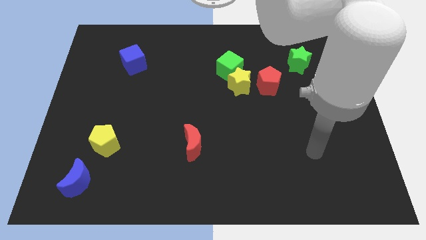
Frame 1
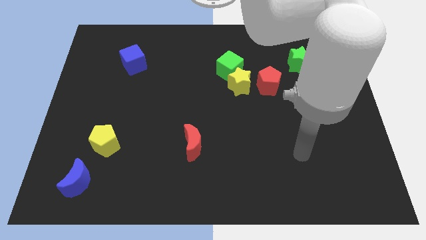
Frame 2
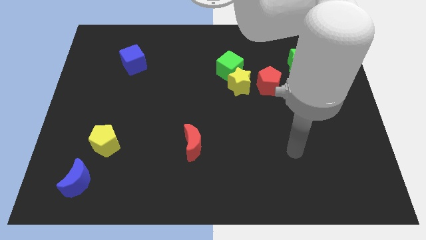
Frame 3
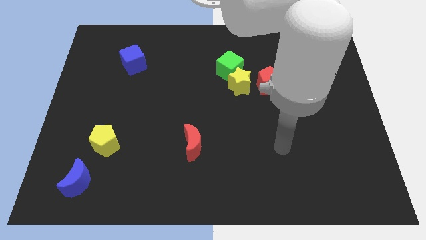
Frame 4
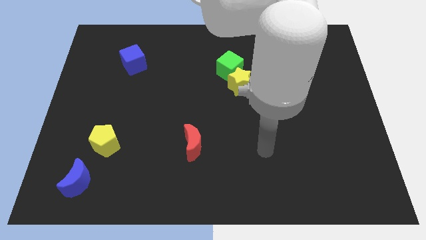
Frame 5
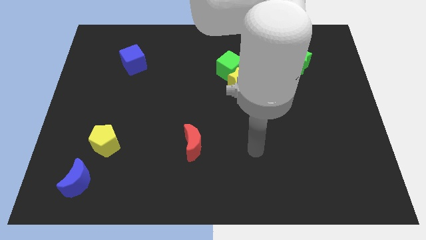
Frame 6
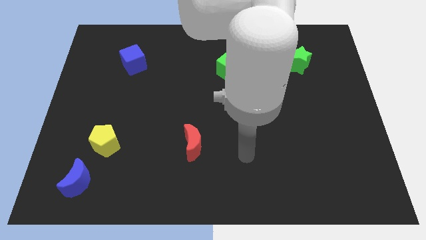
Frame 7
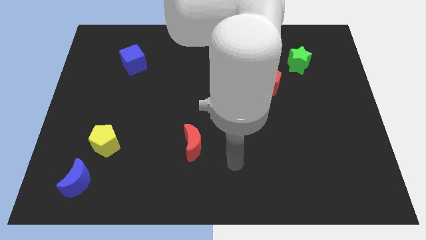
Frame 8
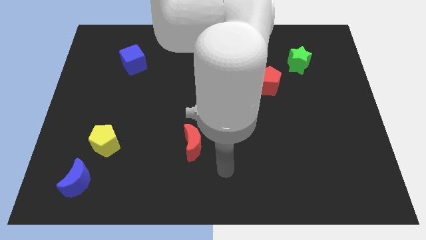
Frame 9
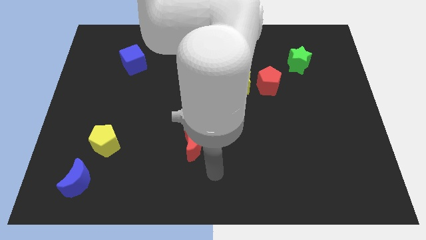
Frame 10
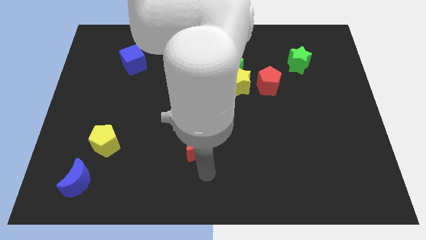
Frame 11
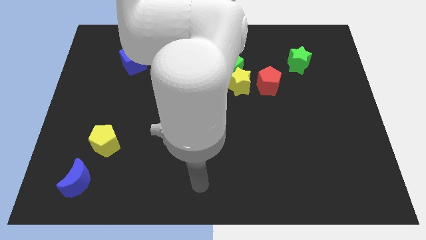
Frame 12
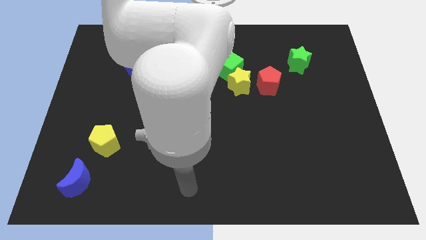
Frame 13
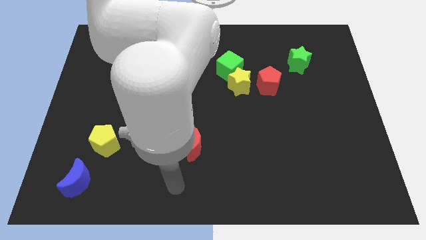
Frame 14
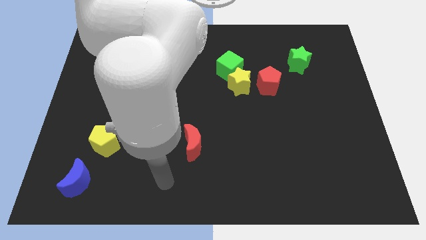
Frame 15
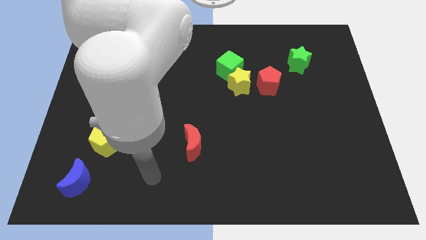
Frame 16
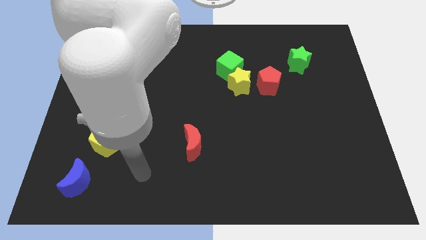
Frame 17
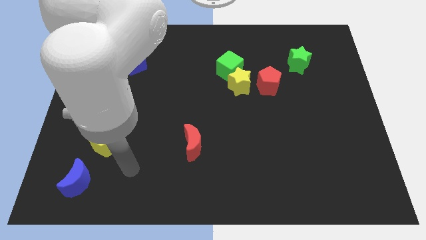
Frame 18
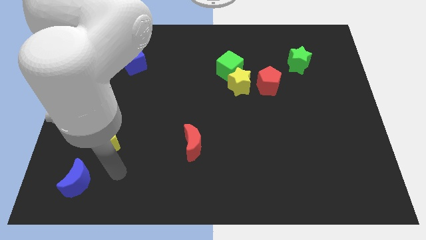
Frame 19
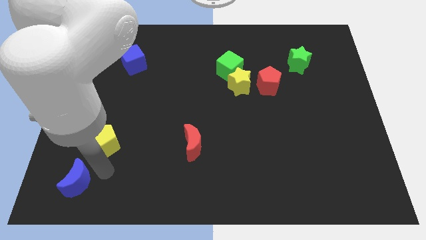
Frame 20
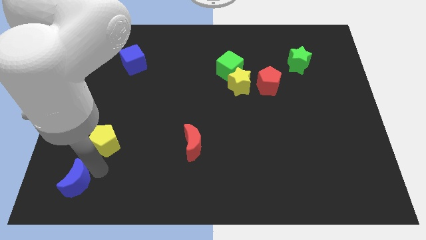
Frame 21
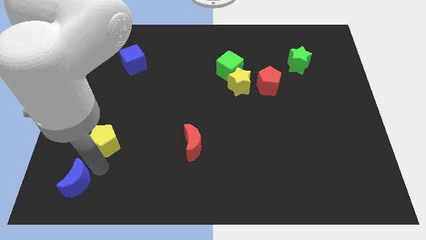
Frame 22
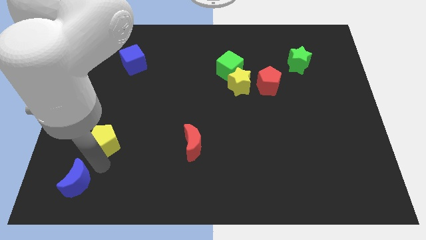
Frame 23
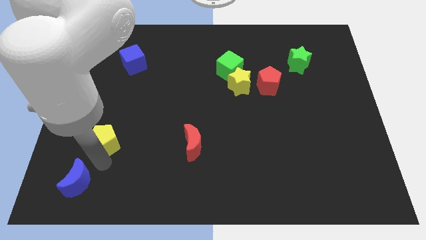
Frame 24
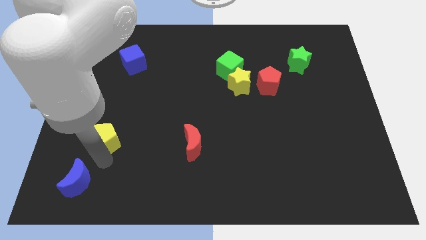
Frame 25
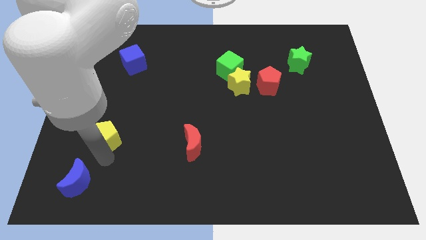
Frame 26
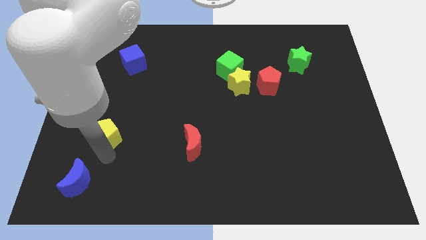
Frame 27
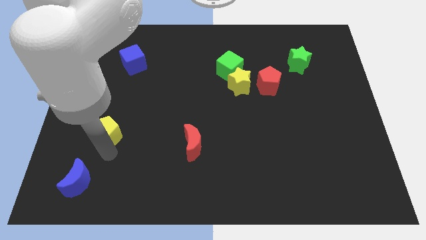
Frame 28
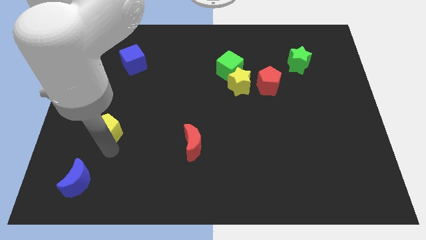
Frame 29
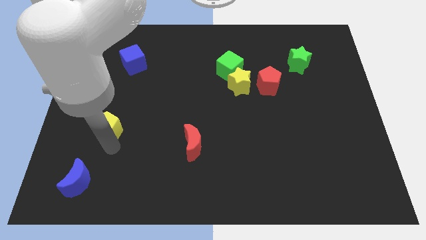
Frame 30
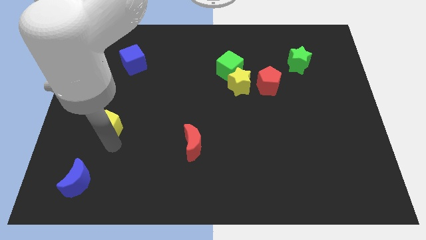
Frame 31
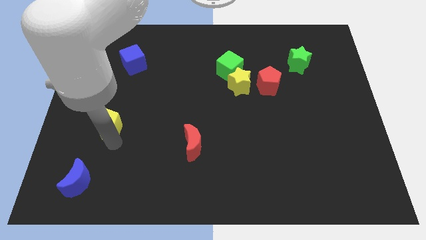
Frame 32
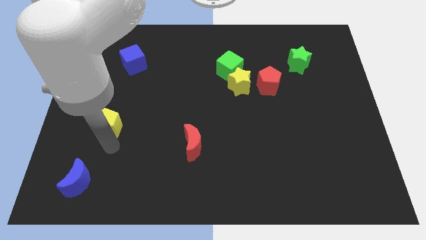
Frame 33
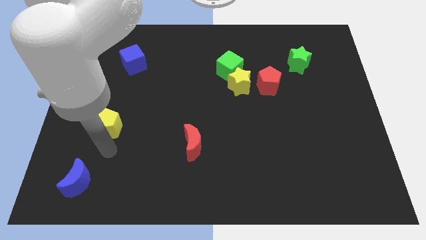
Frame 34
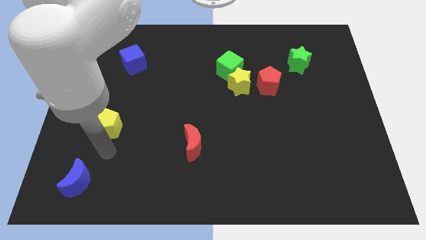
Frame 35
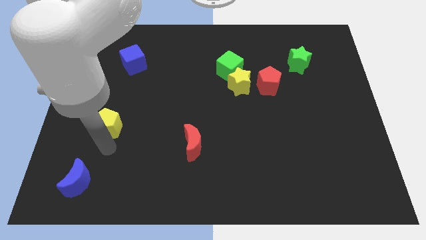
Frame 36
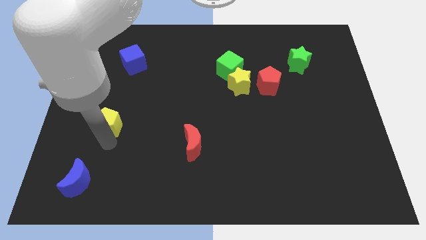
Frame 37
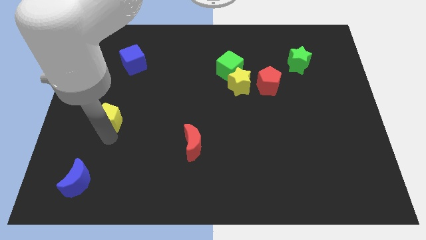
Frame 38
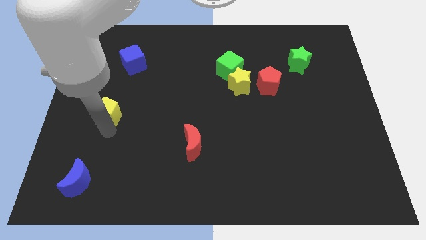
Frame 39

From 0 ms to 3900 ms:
push the yellow pentagon upwards somewhat

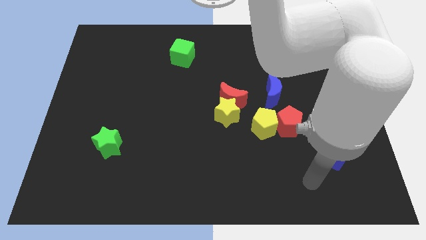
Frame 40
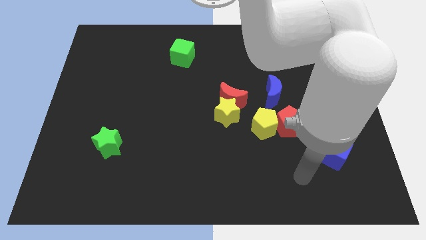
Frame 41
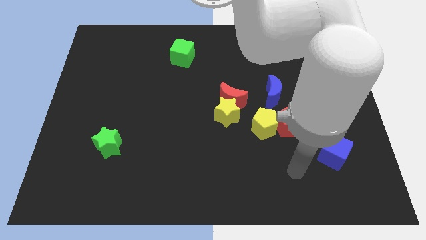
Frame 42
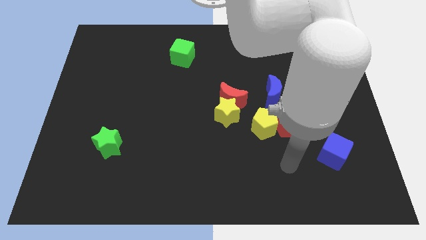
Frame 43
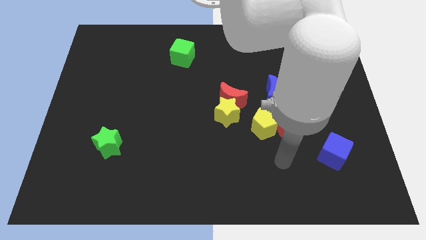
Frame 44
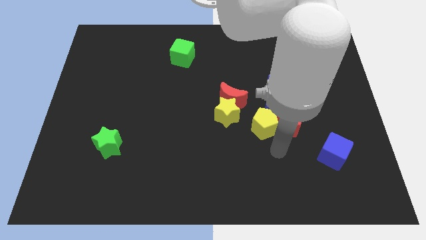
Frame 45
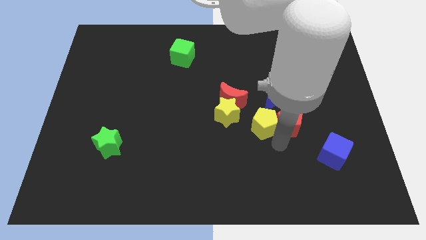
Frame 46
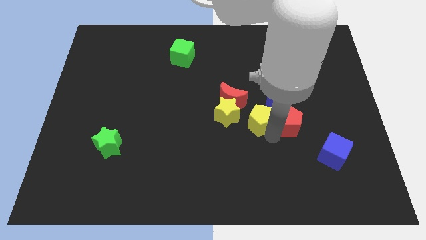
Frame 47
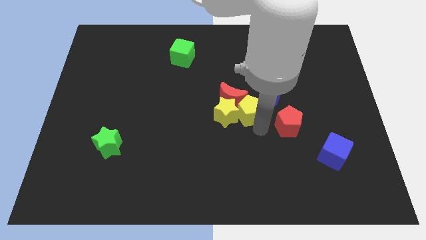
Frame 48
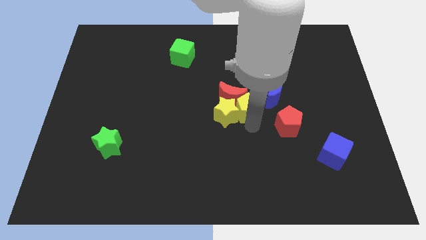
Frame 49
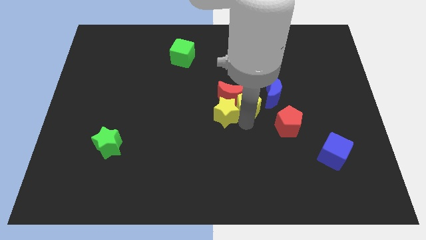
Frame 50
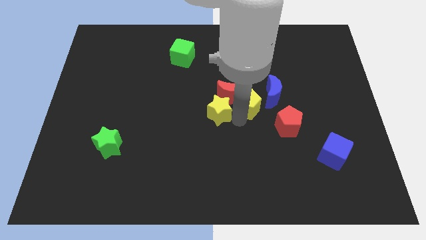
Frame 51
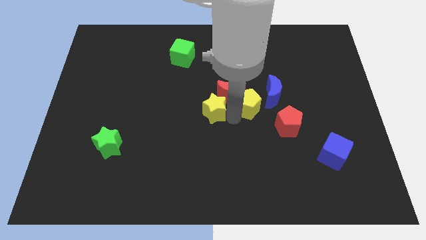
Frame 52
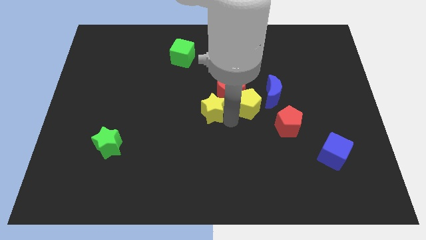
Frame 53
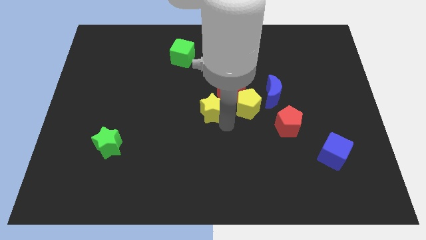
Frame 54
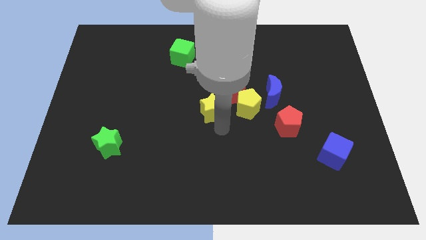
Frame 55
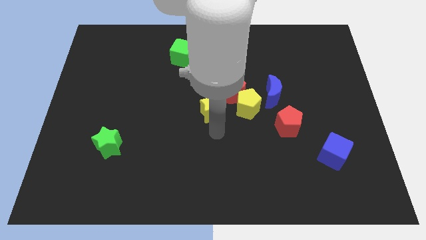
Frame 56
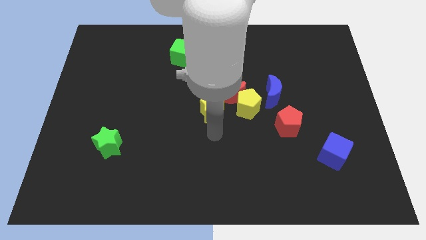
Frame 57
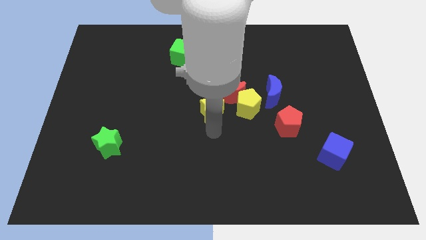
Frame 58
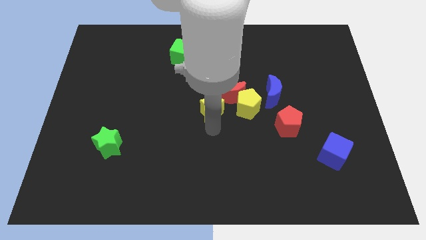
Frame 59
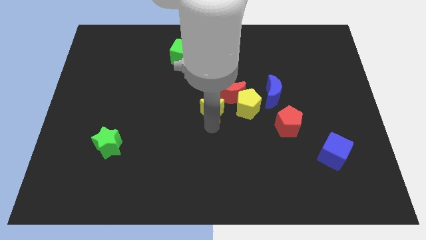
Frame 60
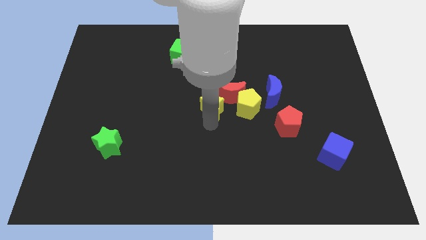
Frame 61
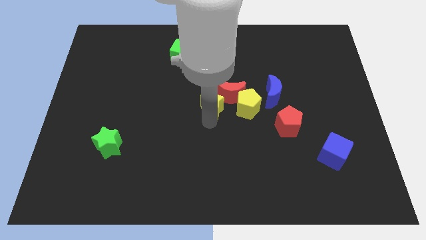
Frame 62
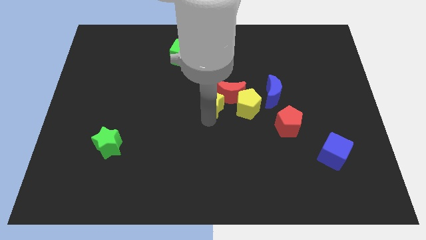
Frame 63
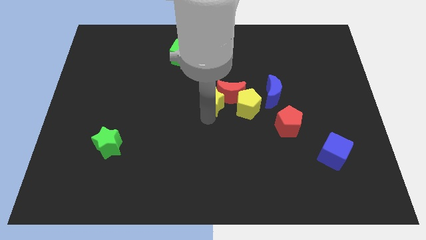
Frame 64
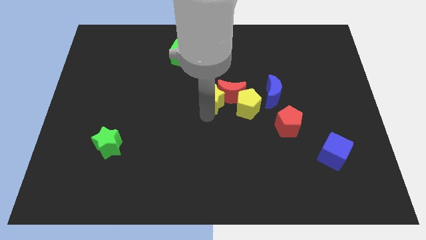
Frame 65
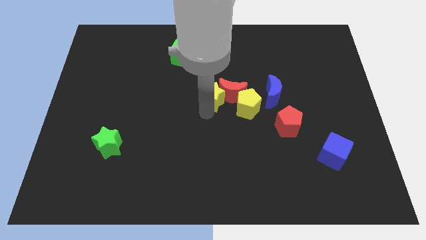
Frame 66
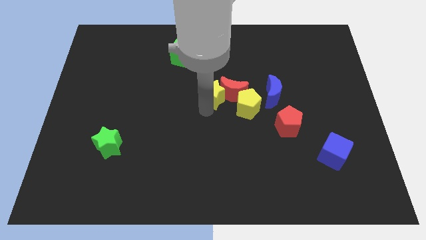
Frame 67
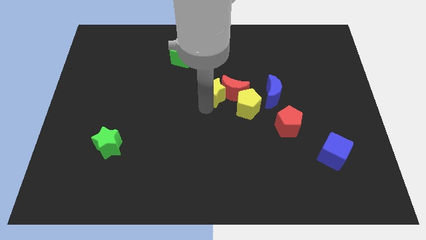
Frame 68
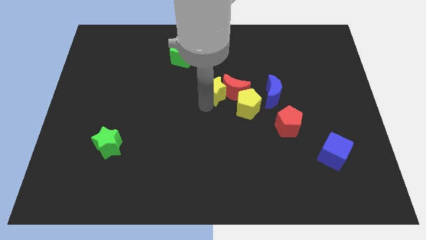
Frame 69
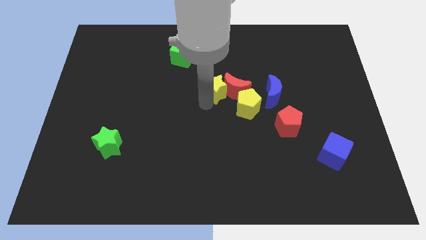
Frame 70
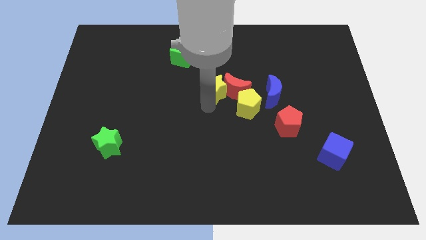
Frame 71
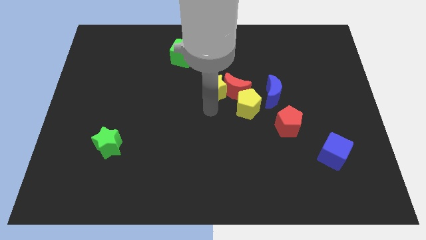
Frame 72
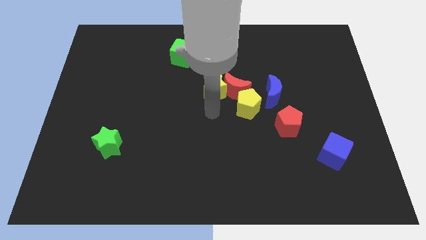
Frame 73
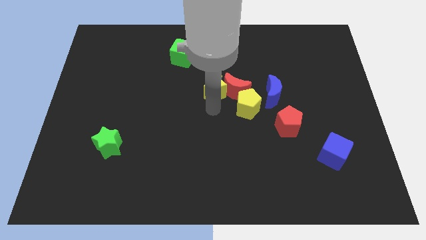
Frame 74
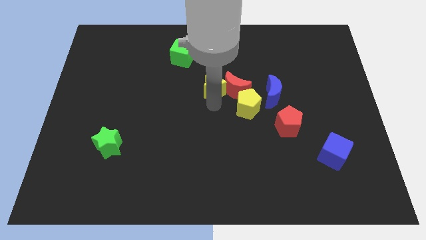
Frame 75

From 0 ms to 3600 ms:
slightly push the yellow star up

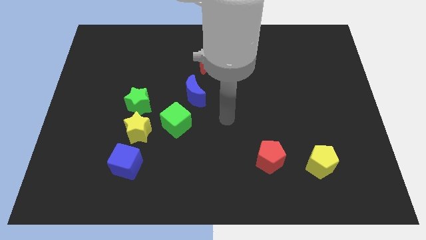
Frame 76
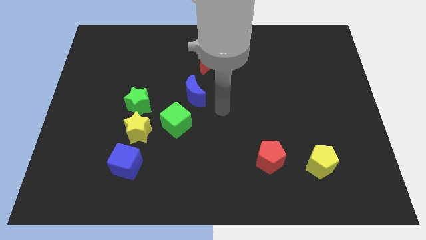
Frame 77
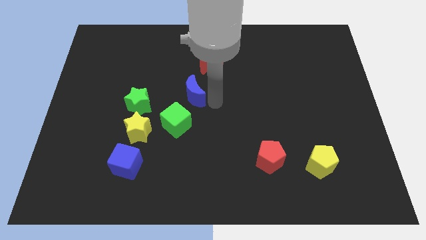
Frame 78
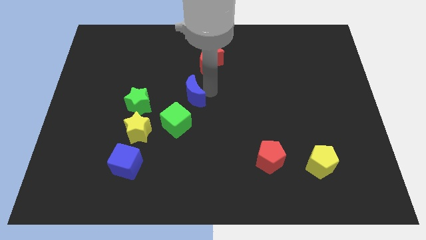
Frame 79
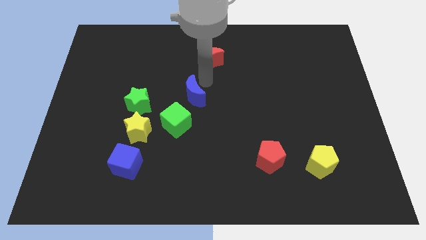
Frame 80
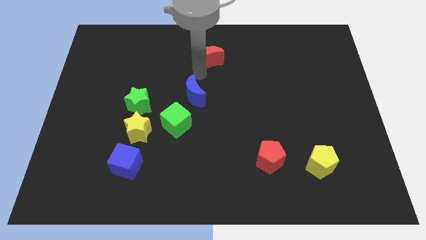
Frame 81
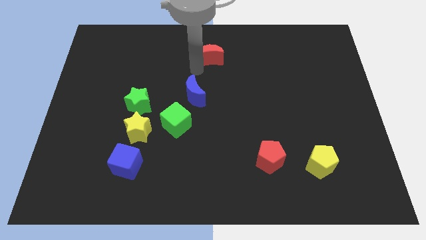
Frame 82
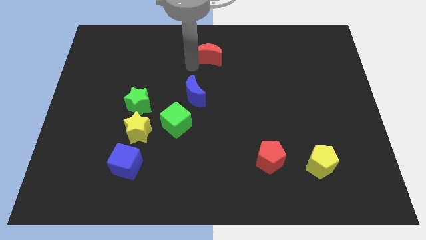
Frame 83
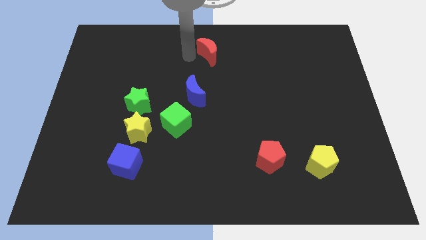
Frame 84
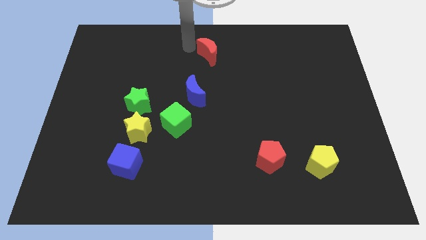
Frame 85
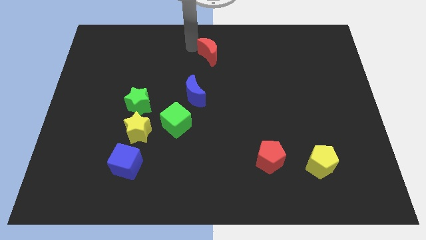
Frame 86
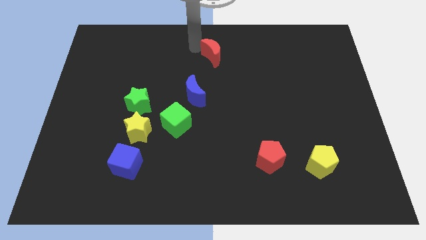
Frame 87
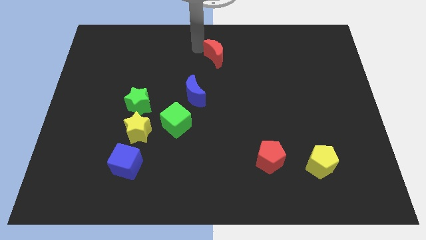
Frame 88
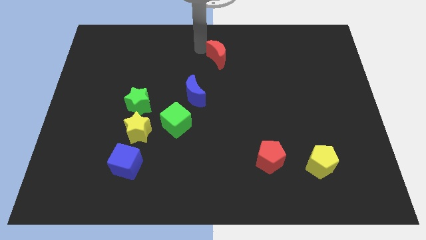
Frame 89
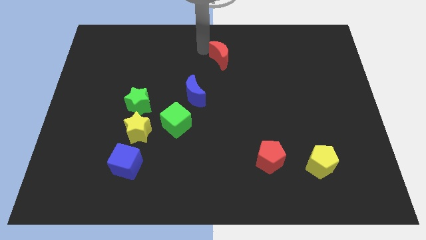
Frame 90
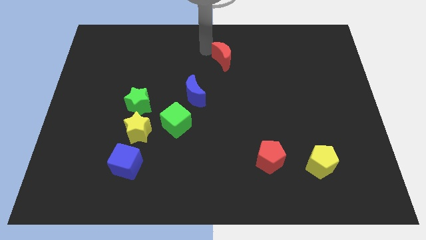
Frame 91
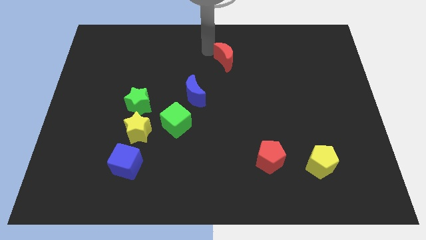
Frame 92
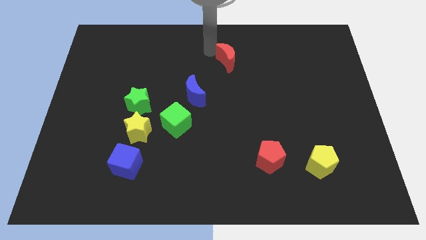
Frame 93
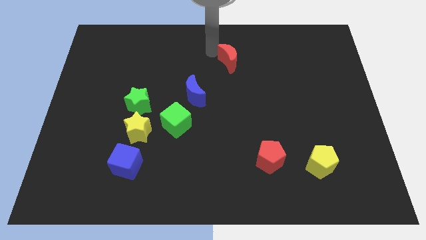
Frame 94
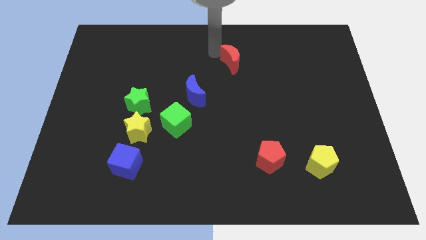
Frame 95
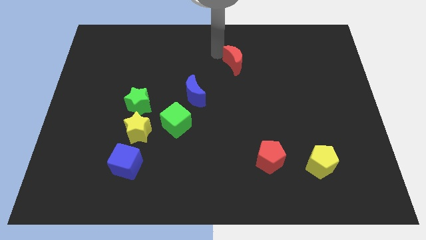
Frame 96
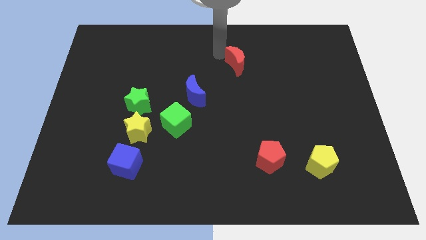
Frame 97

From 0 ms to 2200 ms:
slightly push the red moon to the right
